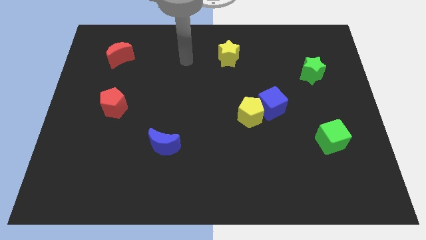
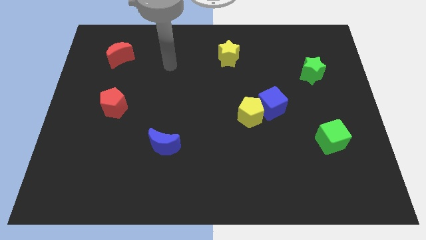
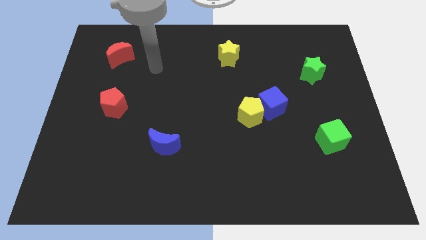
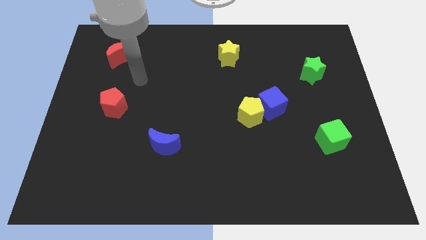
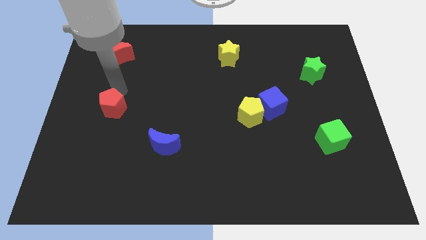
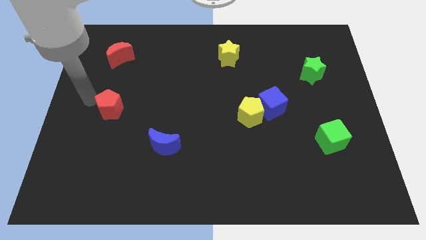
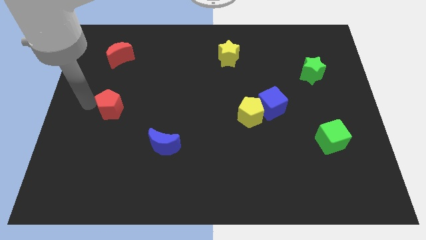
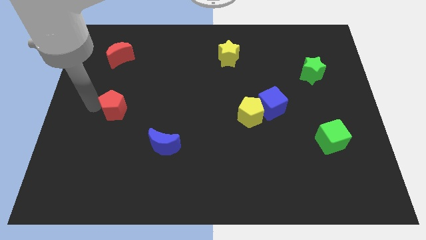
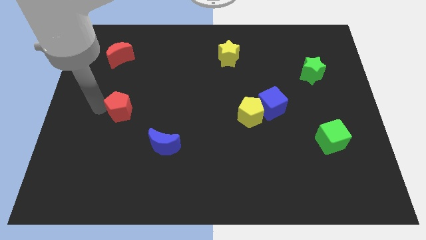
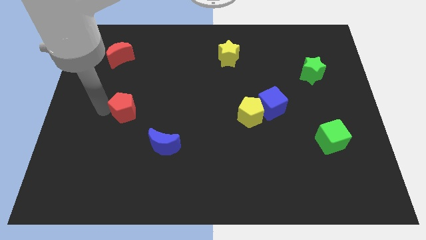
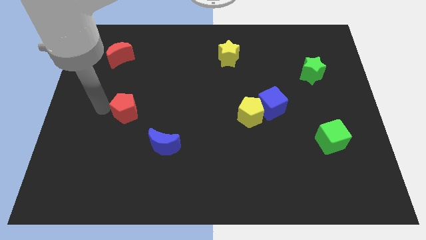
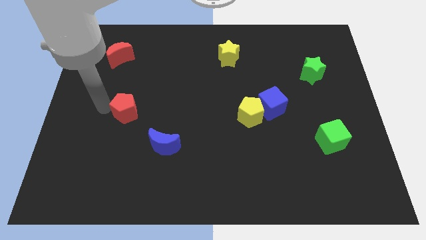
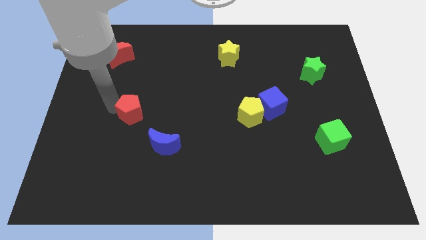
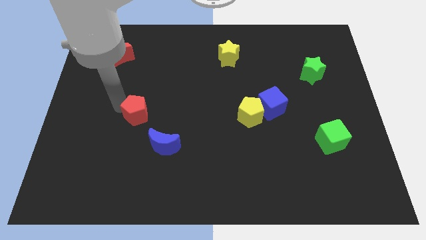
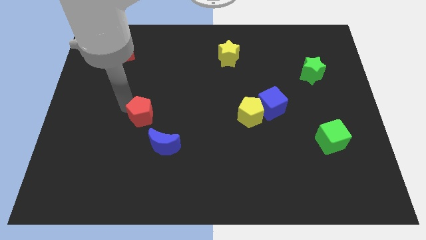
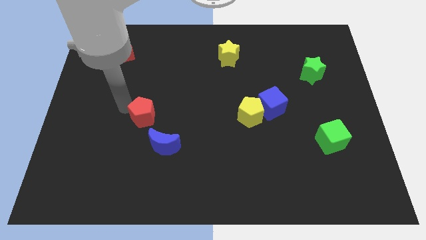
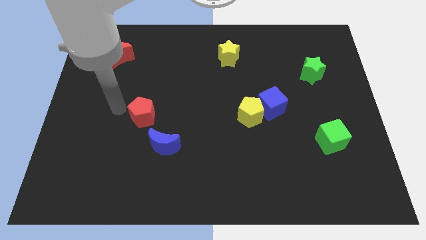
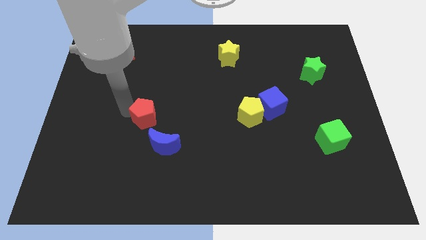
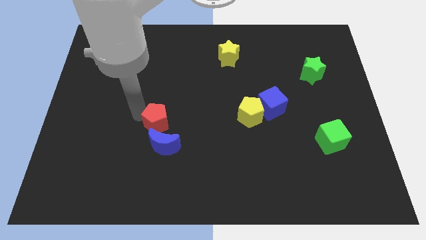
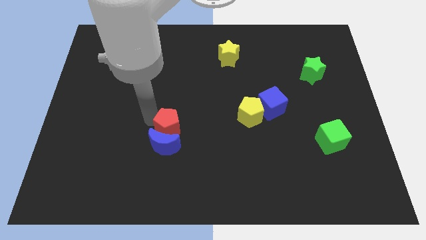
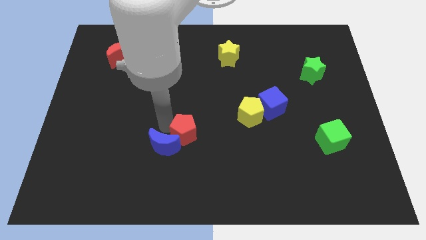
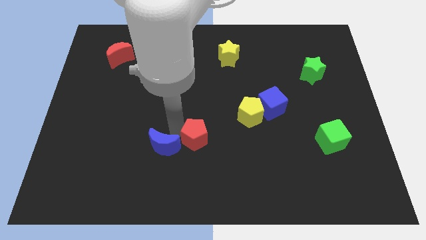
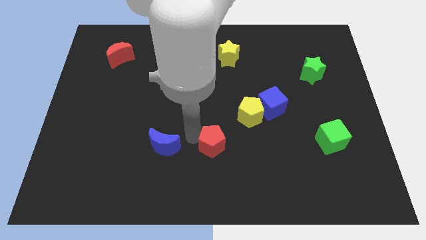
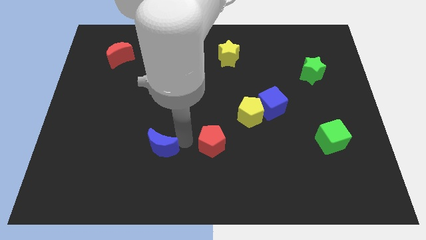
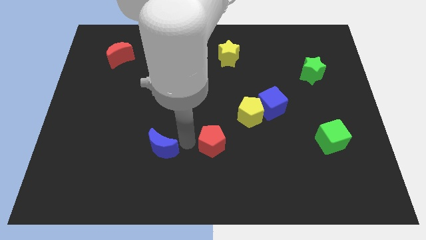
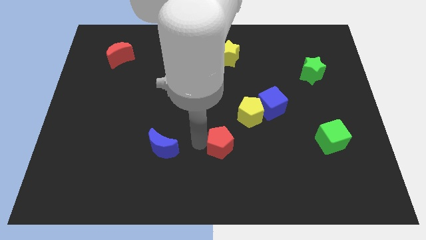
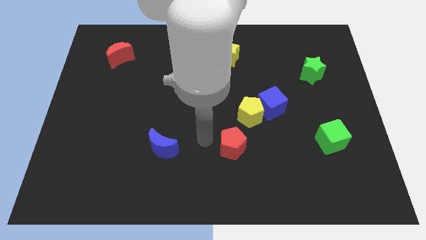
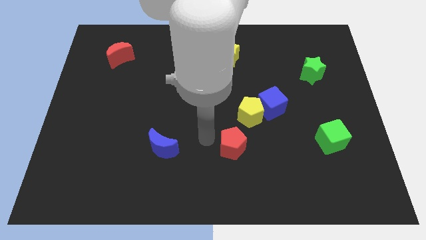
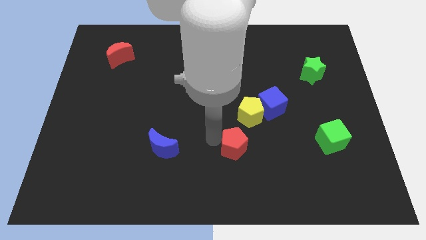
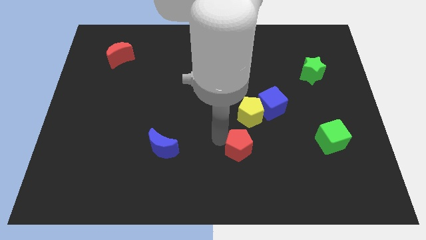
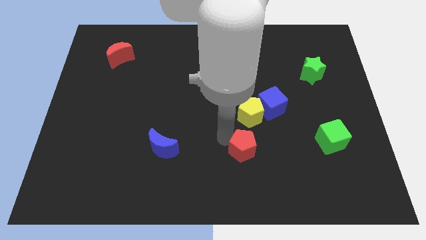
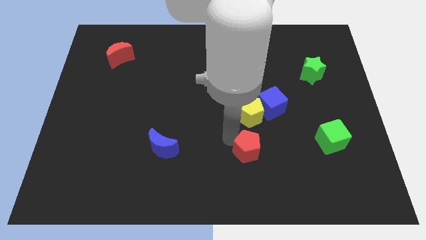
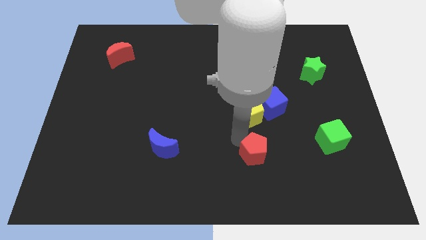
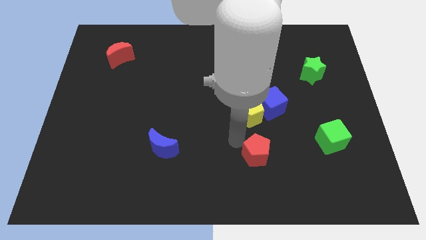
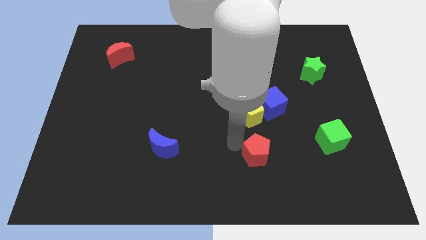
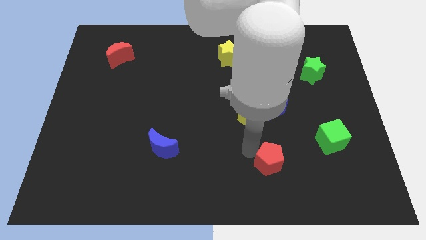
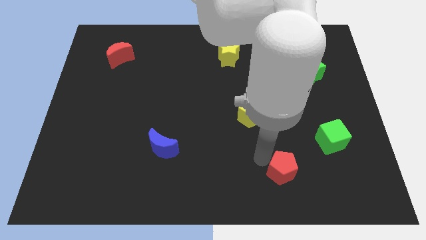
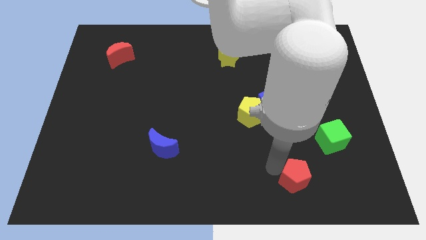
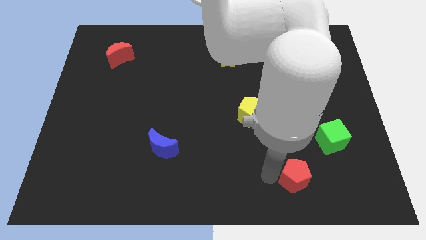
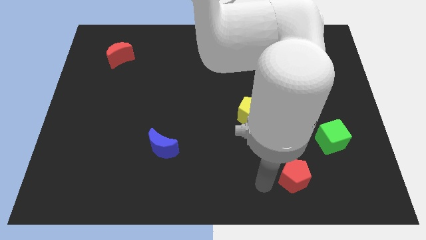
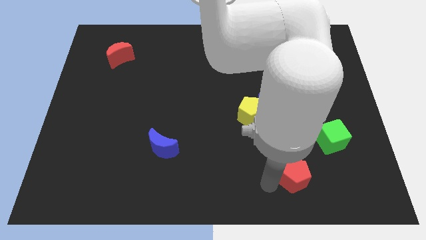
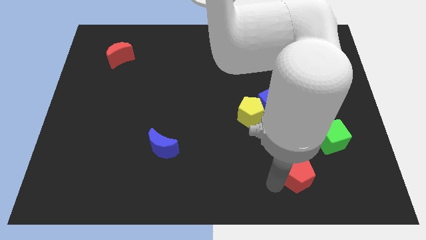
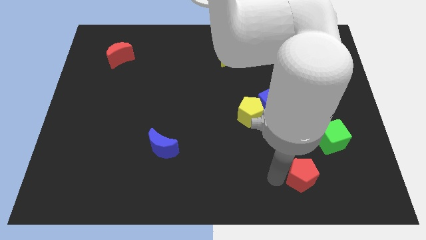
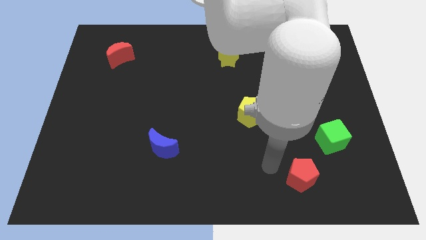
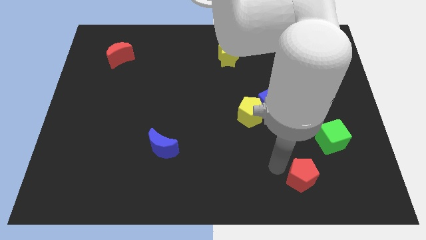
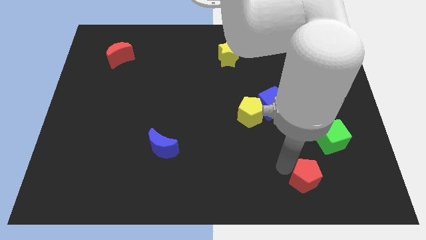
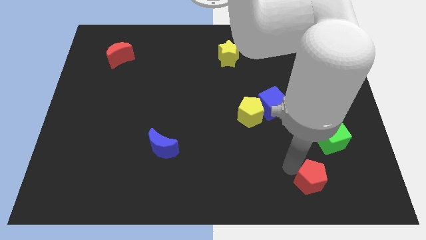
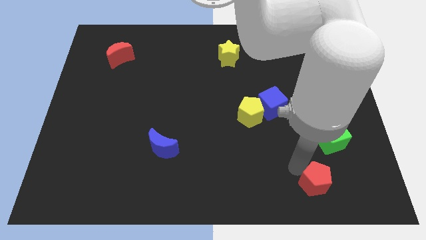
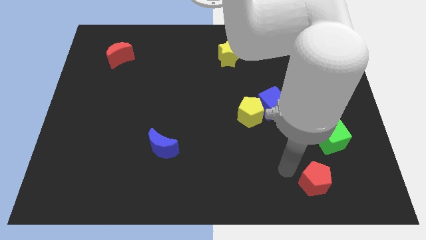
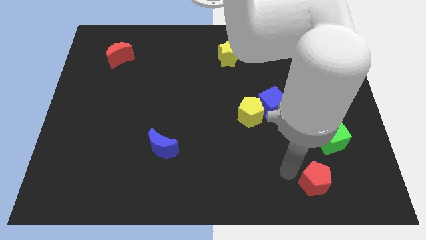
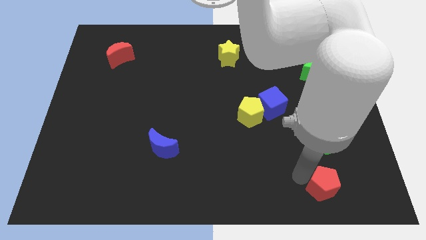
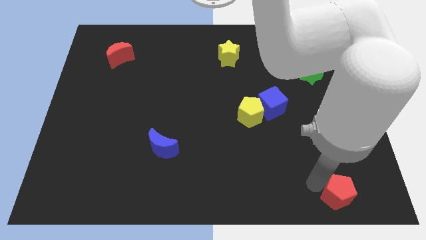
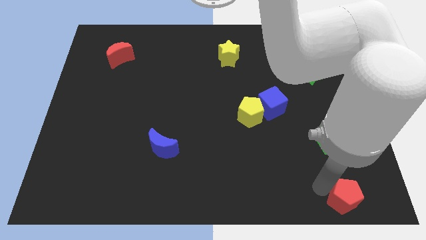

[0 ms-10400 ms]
put the red pentagon to the bottom right

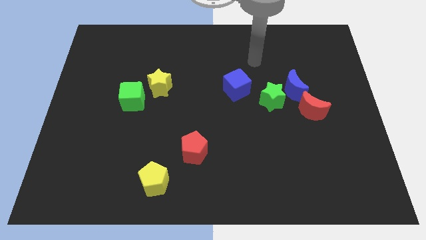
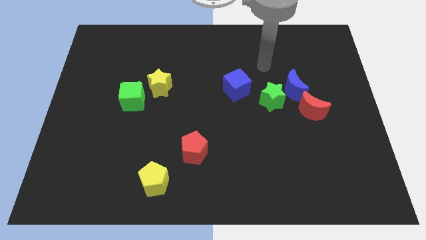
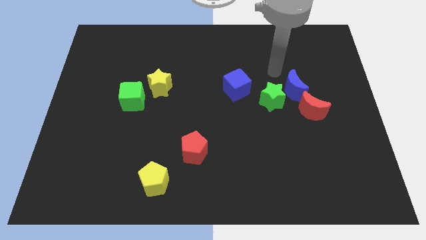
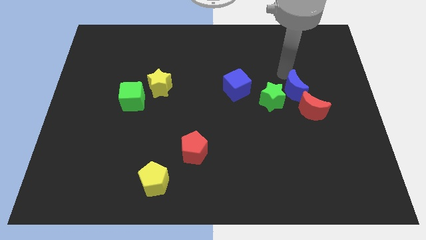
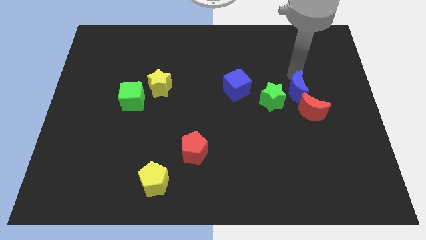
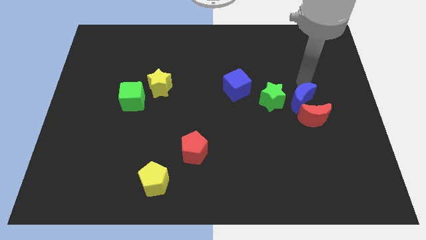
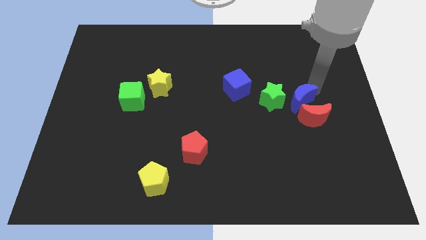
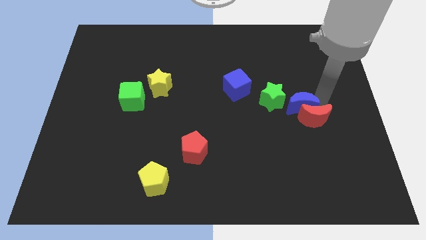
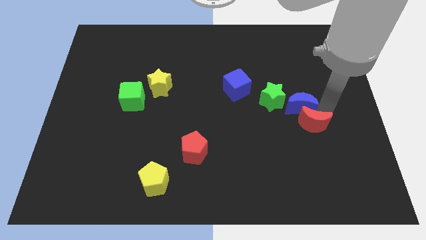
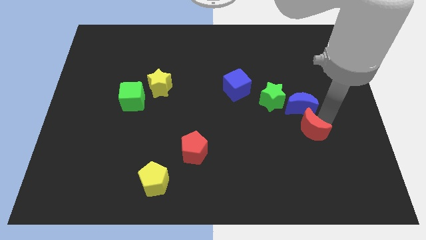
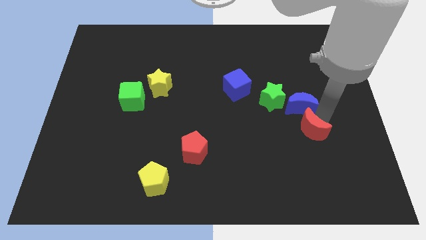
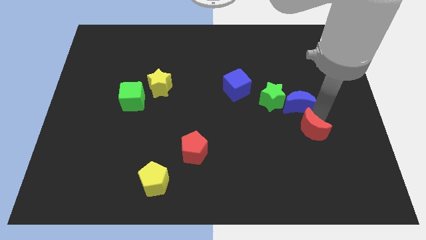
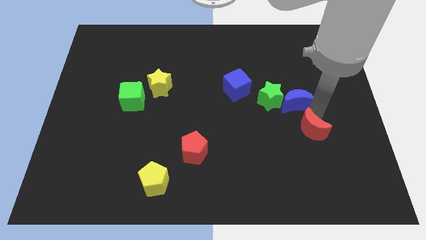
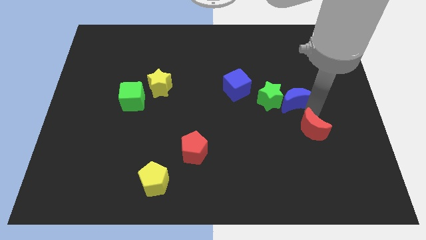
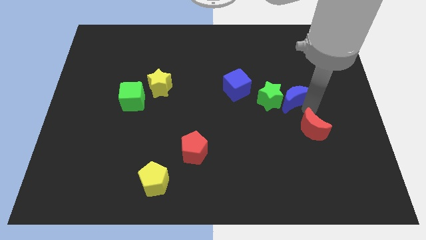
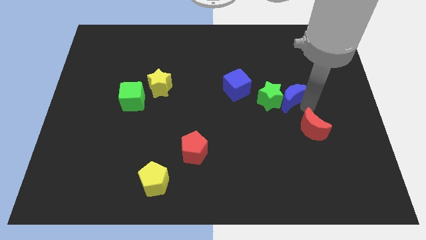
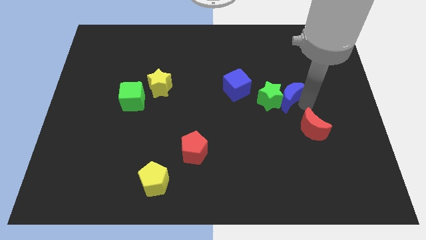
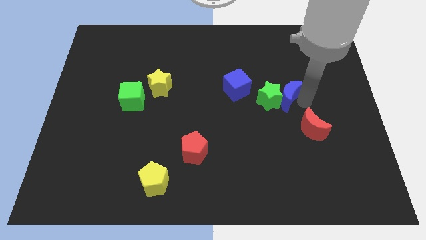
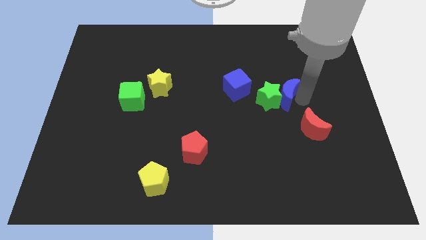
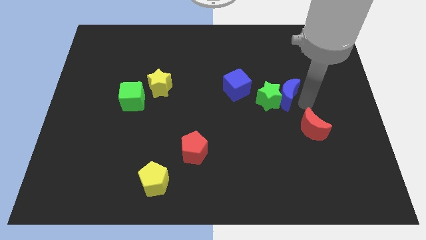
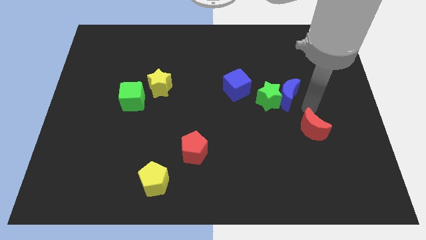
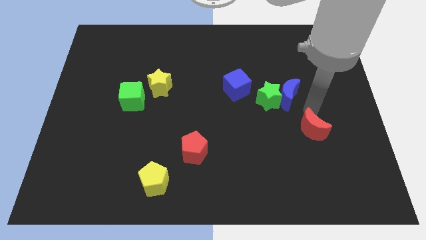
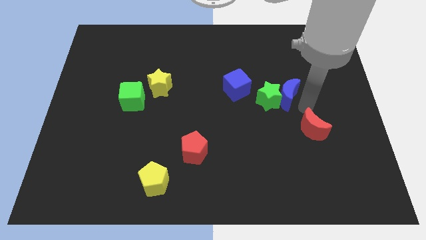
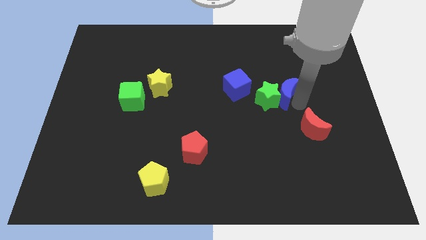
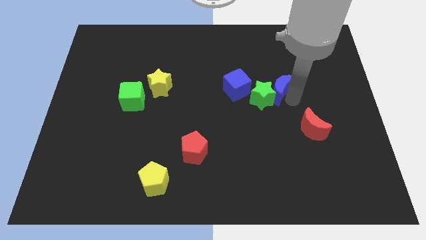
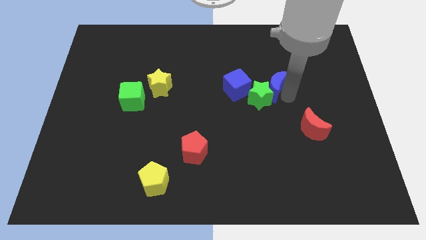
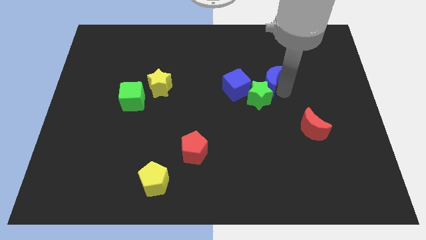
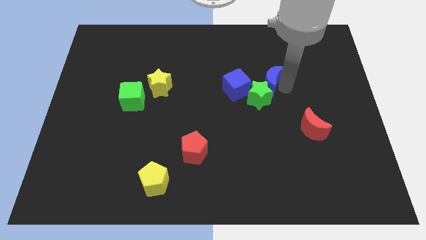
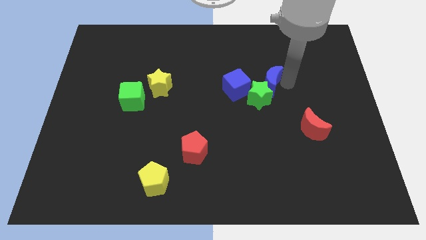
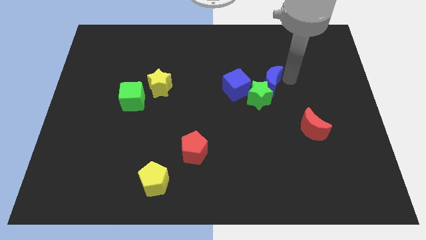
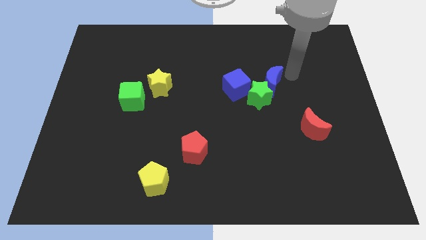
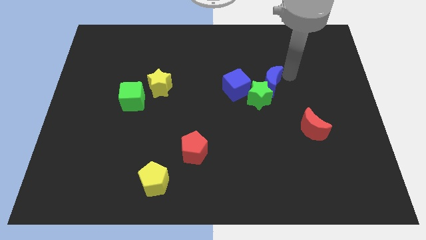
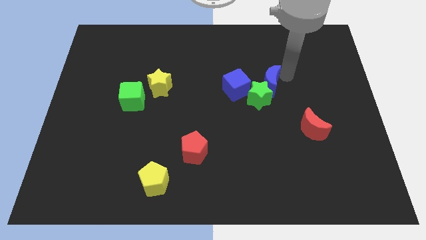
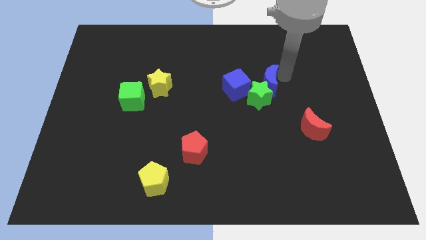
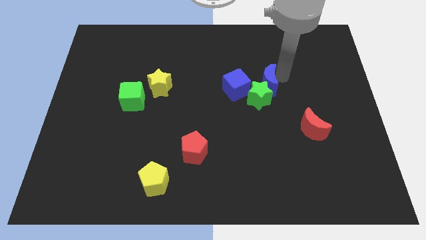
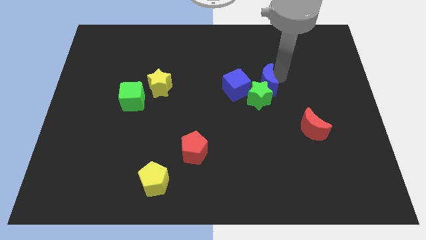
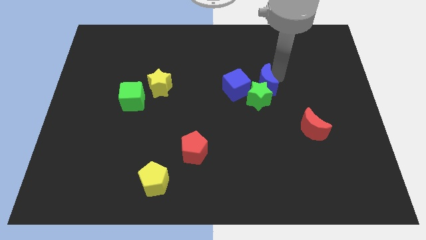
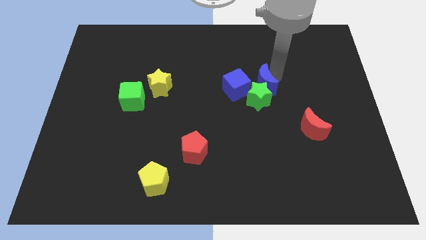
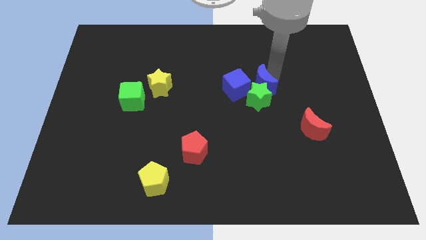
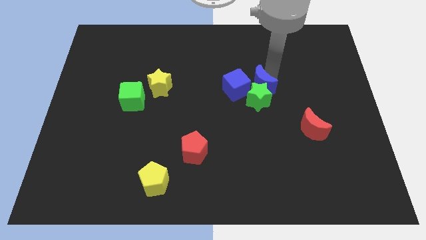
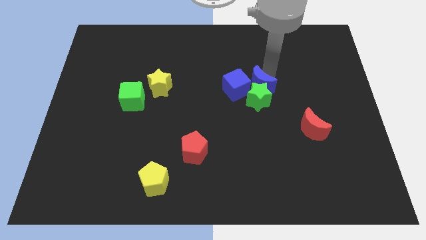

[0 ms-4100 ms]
put the blue moon to the center of the board
